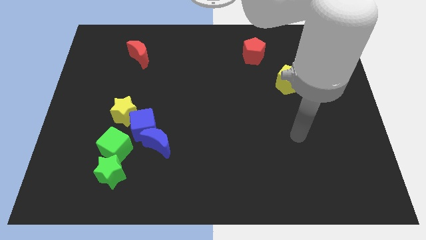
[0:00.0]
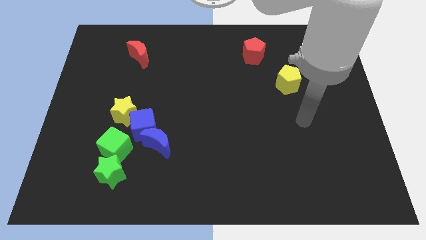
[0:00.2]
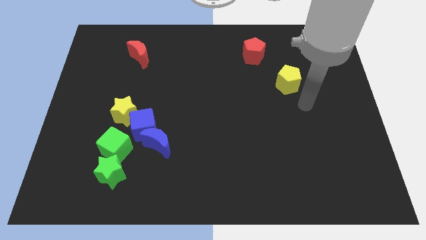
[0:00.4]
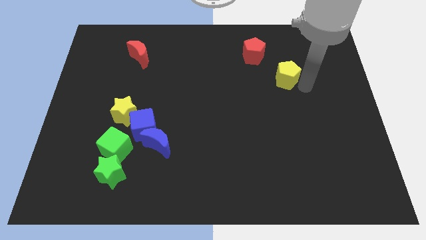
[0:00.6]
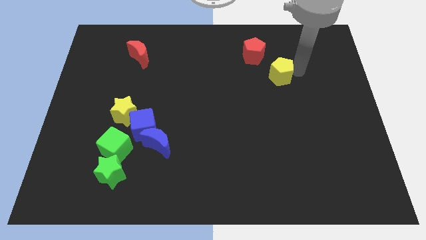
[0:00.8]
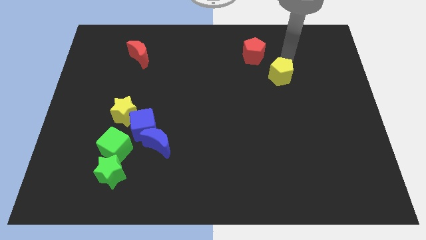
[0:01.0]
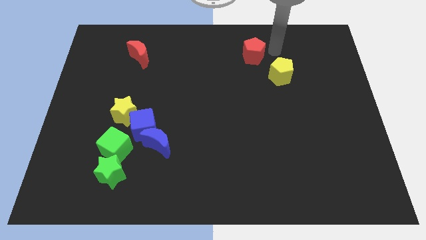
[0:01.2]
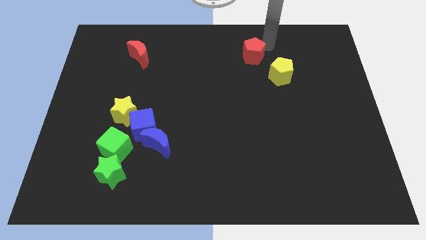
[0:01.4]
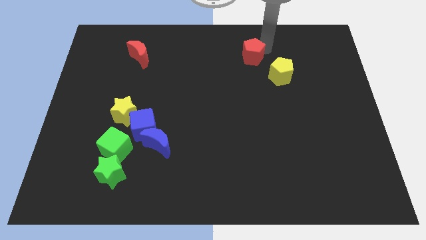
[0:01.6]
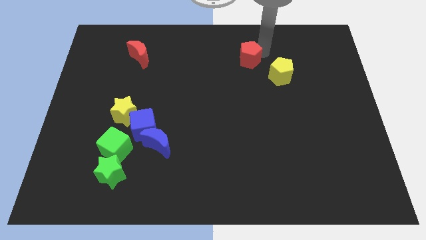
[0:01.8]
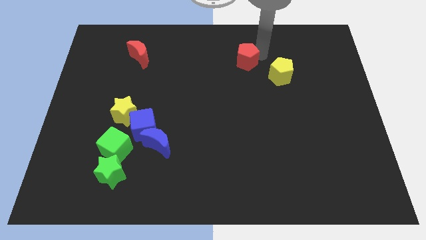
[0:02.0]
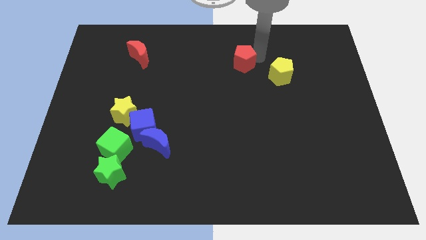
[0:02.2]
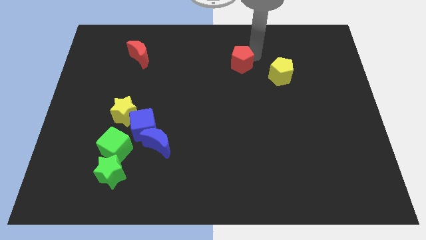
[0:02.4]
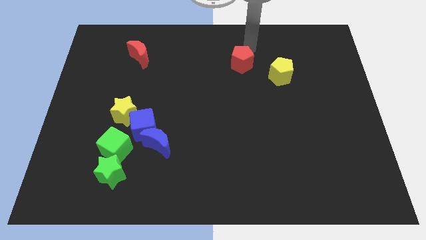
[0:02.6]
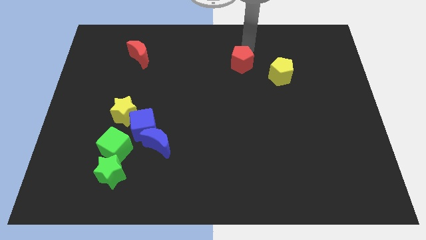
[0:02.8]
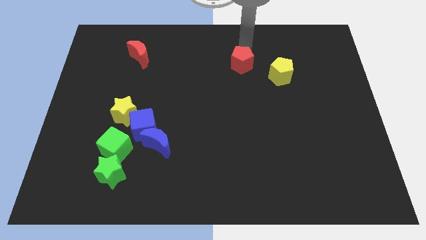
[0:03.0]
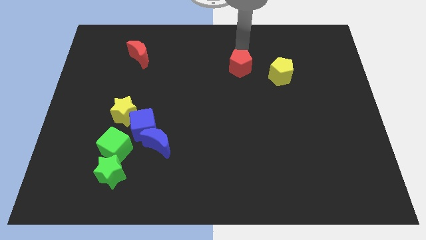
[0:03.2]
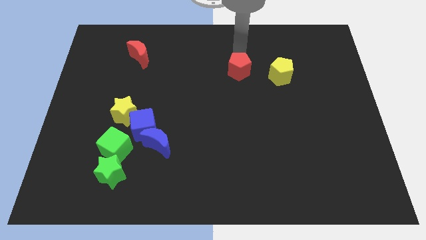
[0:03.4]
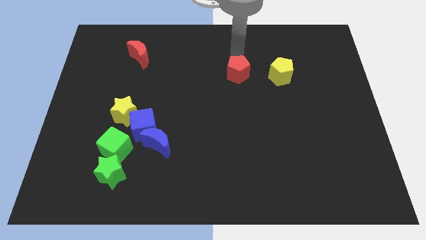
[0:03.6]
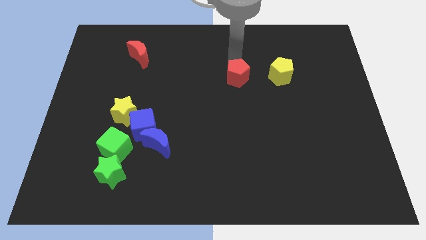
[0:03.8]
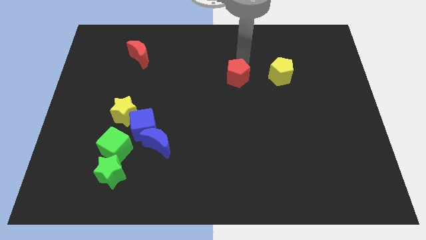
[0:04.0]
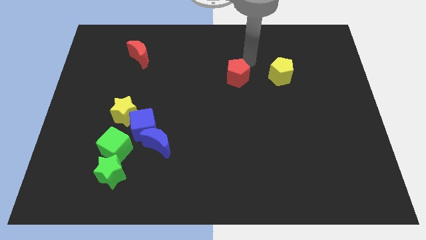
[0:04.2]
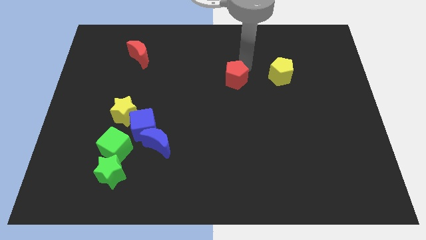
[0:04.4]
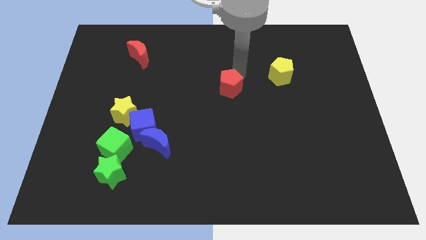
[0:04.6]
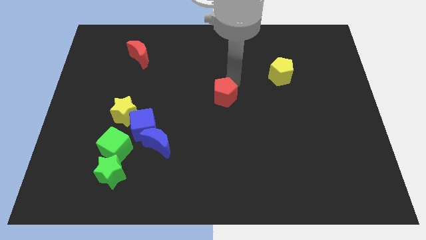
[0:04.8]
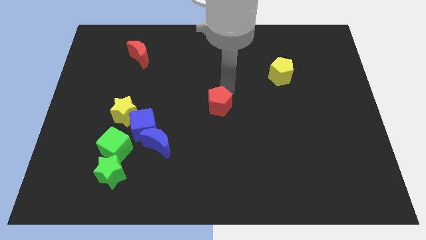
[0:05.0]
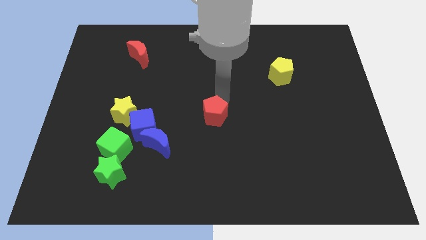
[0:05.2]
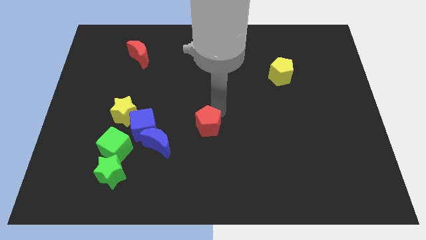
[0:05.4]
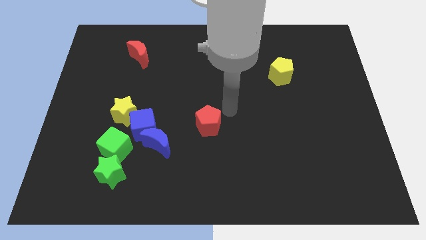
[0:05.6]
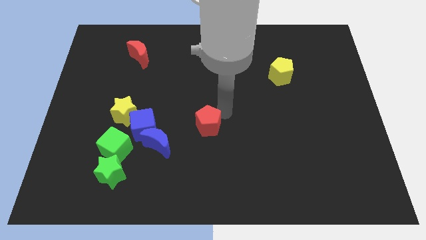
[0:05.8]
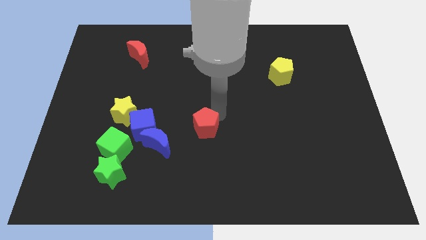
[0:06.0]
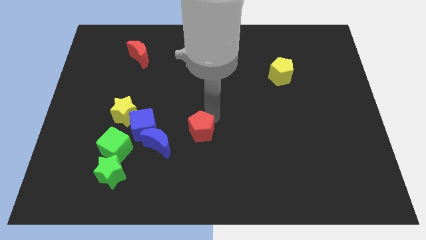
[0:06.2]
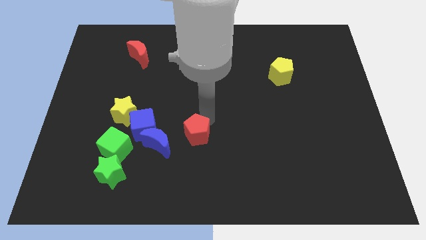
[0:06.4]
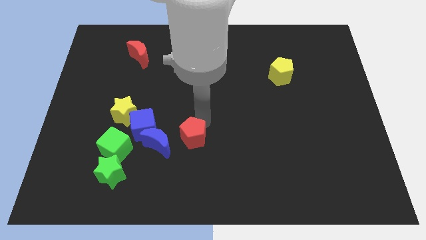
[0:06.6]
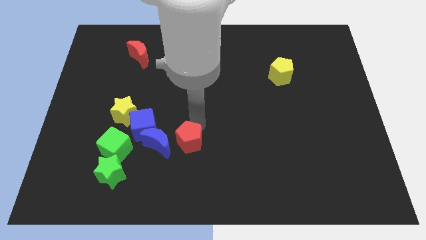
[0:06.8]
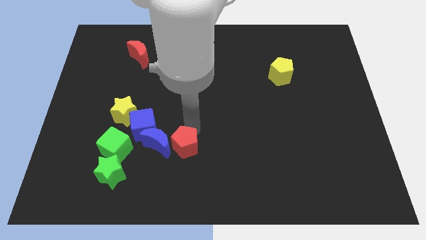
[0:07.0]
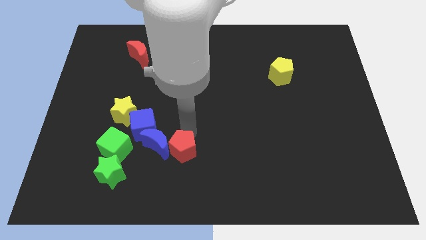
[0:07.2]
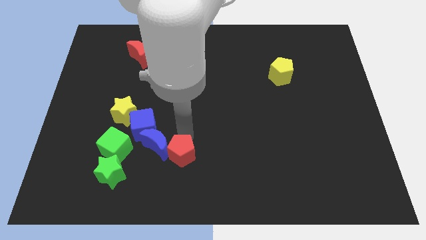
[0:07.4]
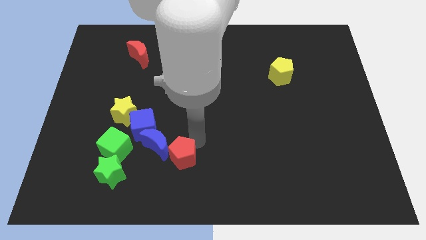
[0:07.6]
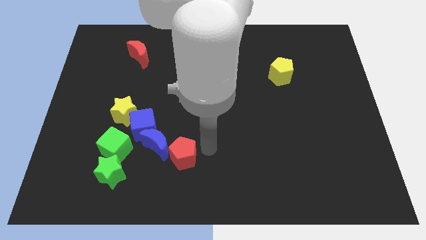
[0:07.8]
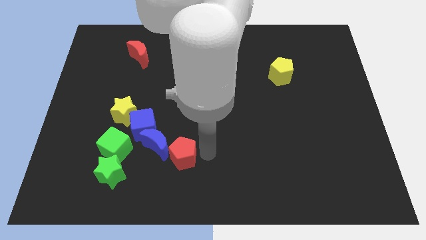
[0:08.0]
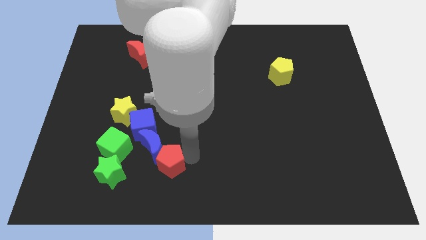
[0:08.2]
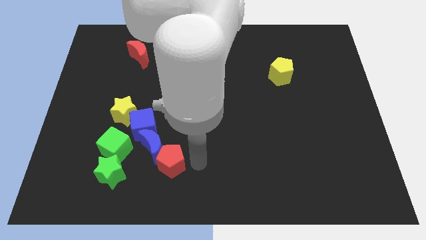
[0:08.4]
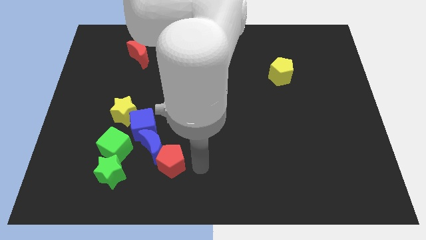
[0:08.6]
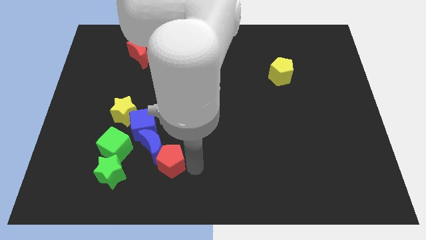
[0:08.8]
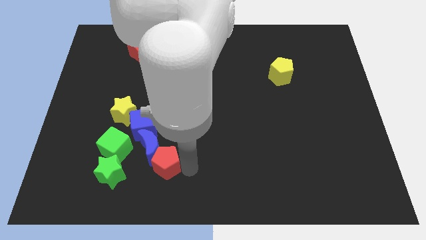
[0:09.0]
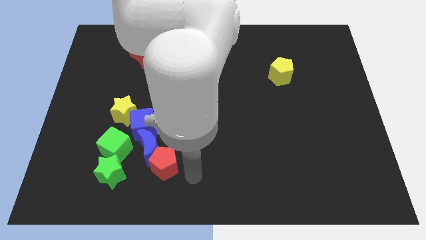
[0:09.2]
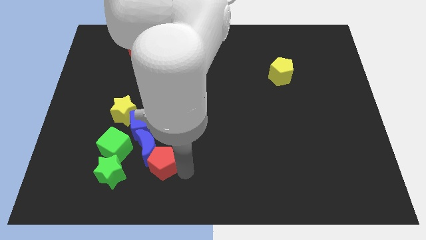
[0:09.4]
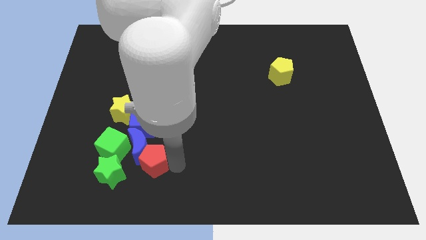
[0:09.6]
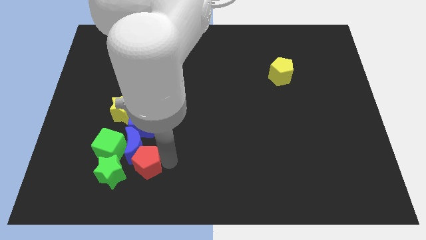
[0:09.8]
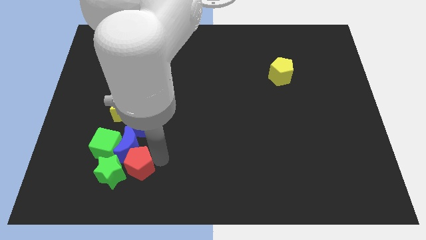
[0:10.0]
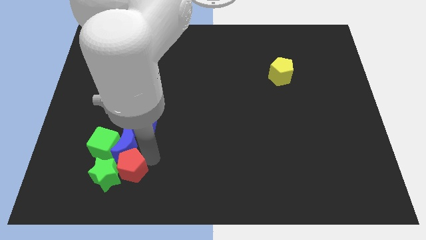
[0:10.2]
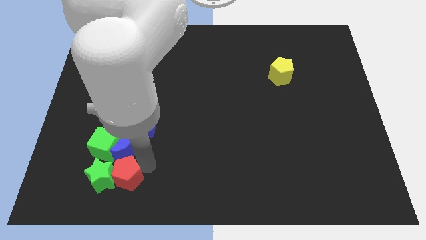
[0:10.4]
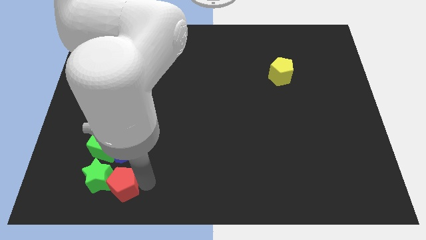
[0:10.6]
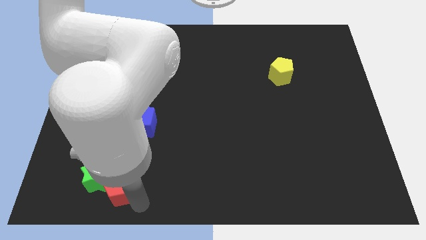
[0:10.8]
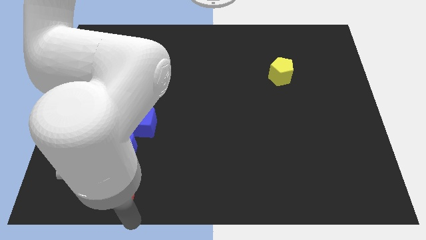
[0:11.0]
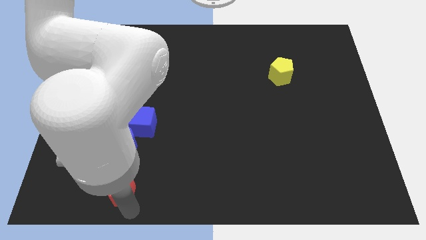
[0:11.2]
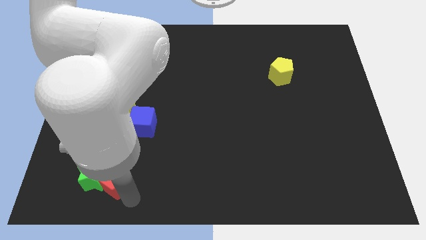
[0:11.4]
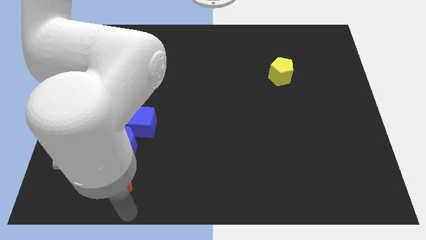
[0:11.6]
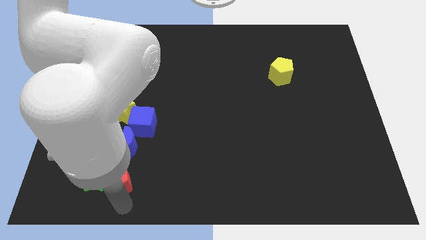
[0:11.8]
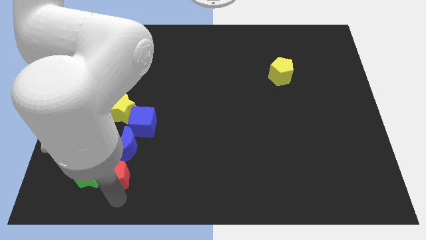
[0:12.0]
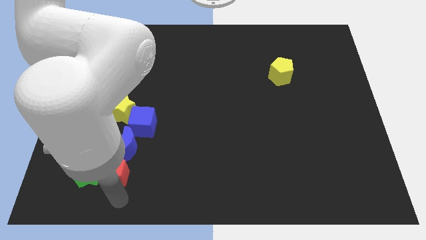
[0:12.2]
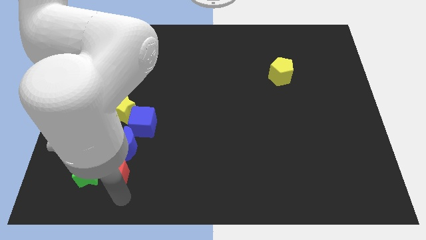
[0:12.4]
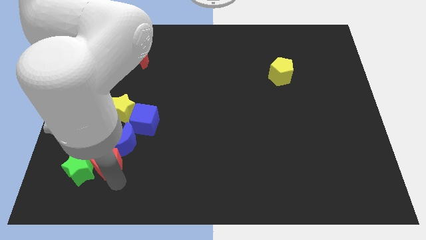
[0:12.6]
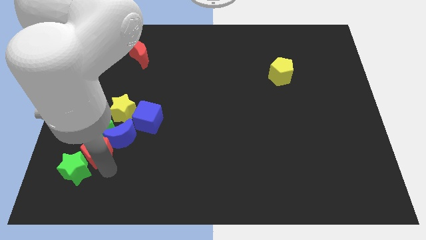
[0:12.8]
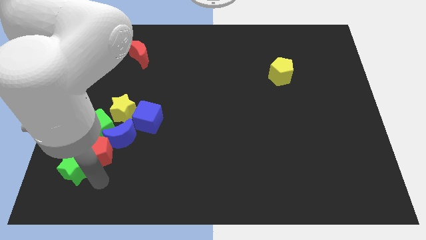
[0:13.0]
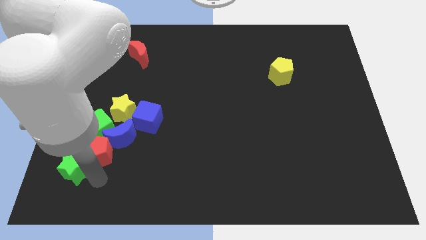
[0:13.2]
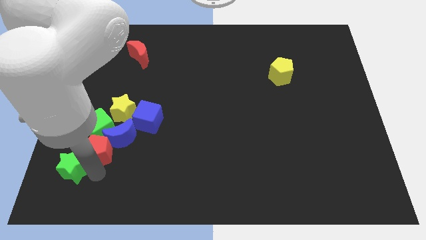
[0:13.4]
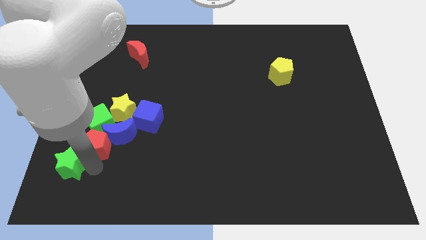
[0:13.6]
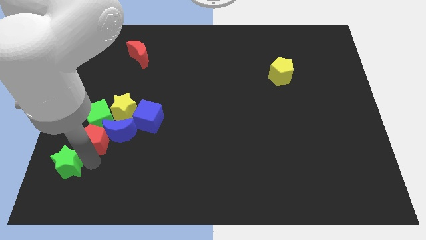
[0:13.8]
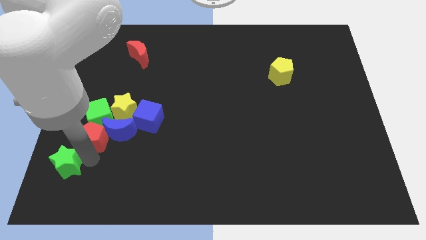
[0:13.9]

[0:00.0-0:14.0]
move the red pentagon to the green cube

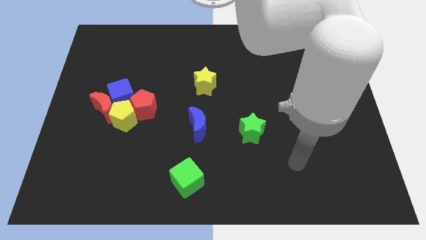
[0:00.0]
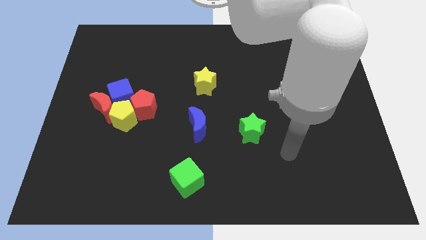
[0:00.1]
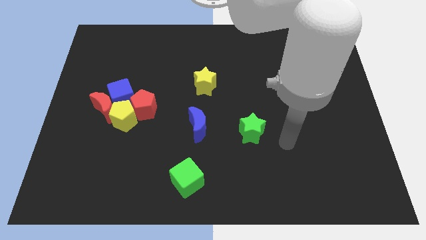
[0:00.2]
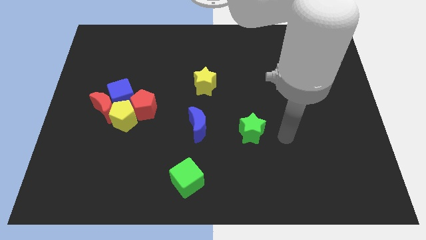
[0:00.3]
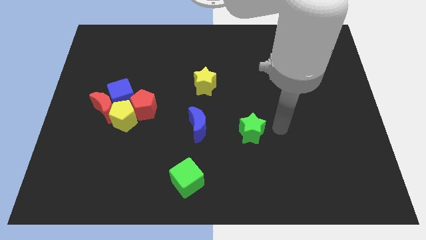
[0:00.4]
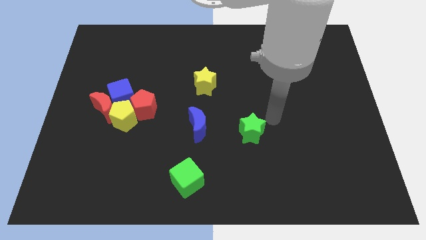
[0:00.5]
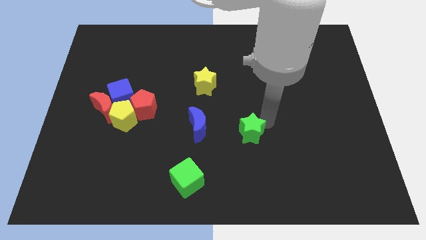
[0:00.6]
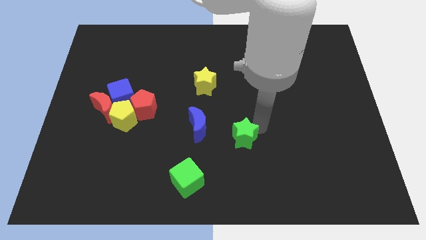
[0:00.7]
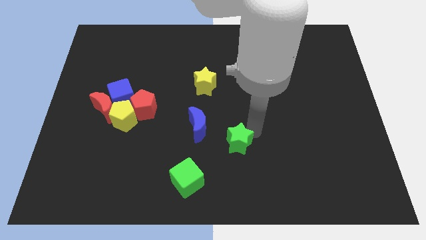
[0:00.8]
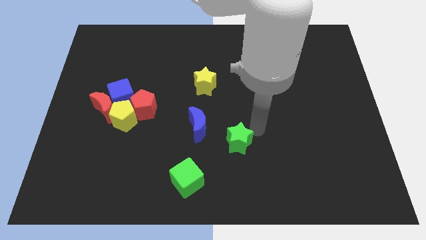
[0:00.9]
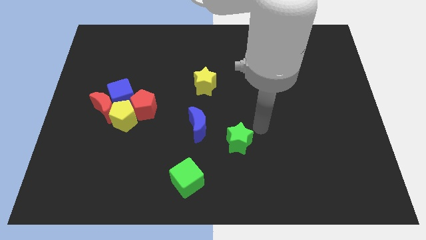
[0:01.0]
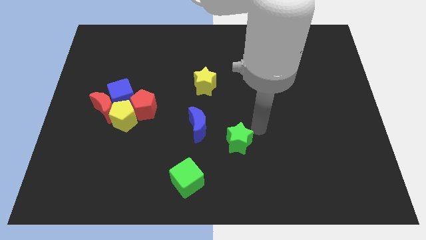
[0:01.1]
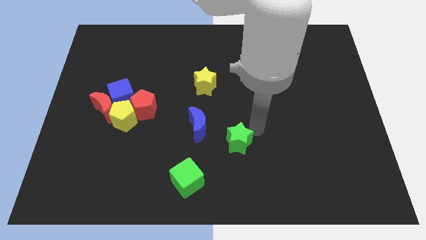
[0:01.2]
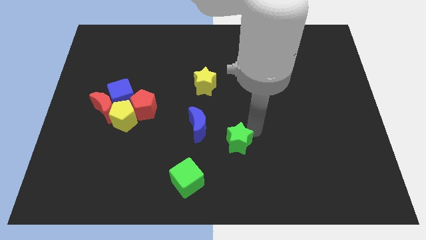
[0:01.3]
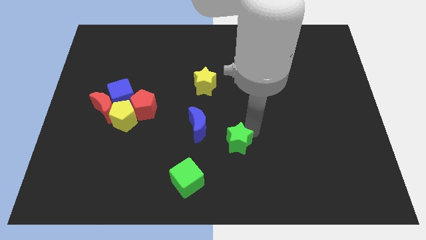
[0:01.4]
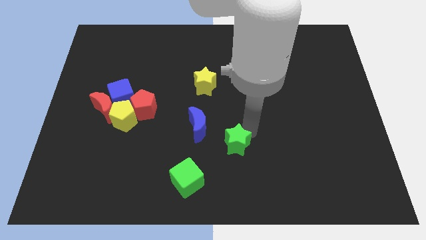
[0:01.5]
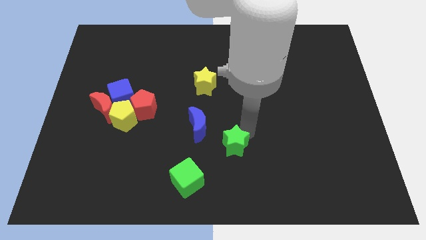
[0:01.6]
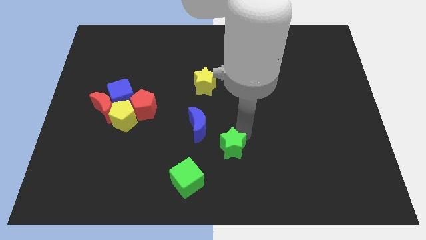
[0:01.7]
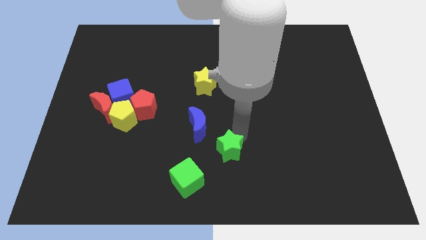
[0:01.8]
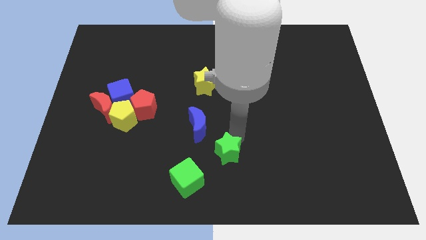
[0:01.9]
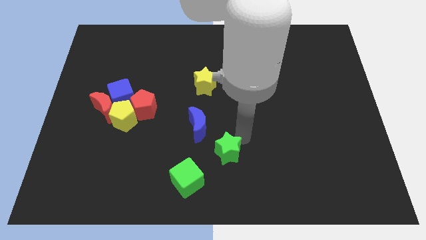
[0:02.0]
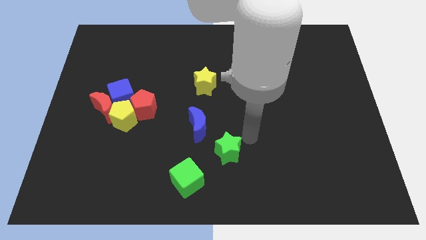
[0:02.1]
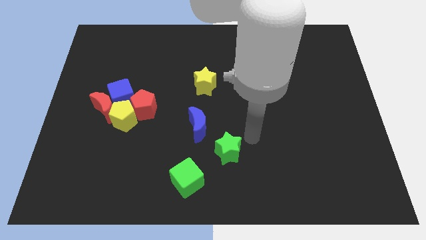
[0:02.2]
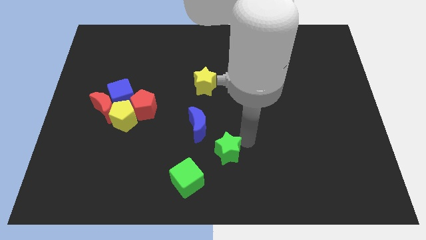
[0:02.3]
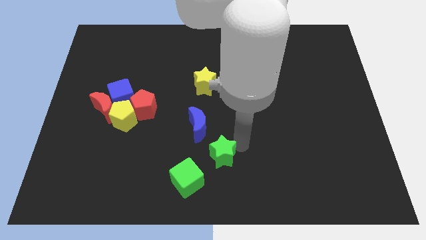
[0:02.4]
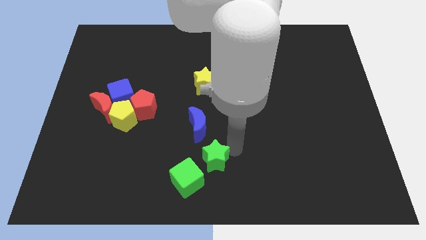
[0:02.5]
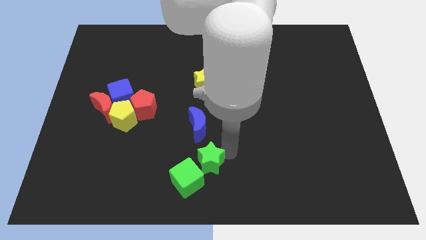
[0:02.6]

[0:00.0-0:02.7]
put the green star to the green cube
